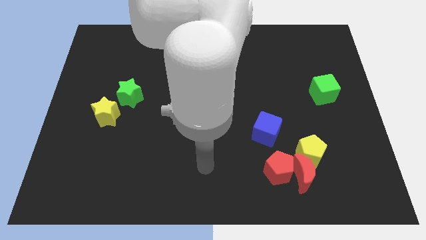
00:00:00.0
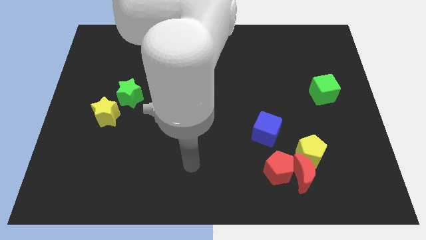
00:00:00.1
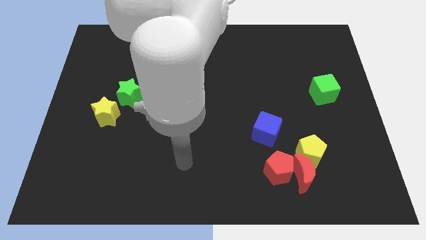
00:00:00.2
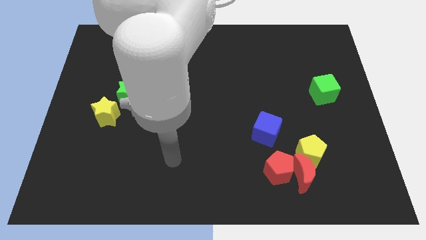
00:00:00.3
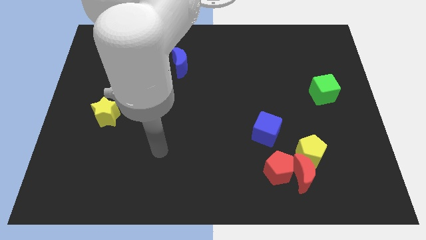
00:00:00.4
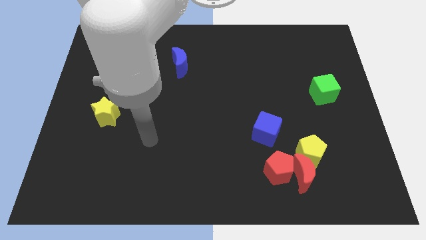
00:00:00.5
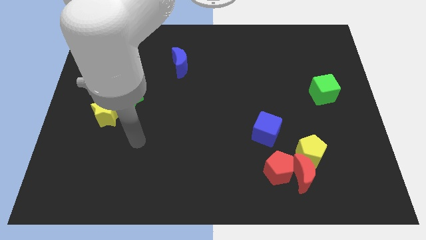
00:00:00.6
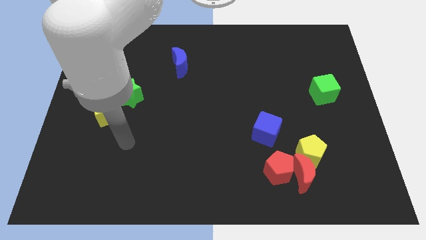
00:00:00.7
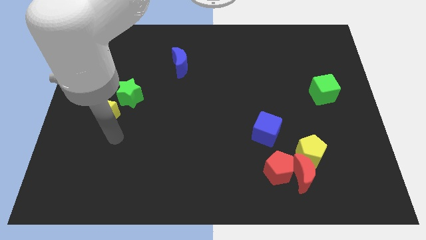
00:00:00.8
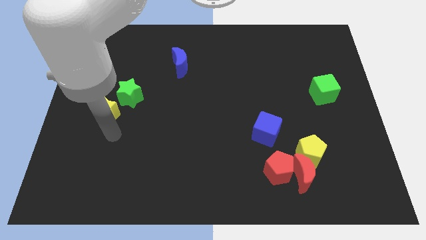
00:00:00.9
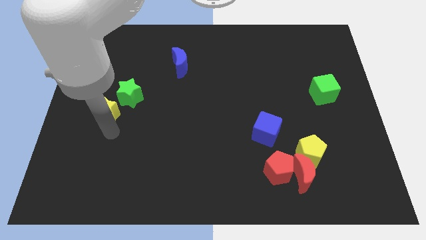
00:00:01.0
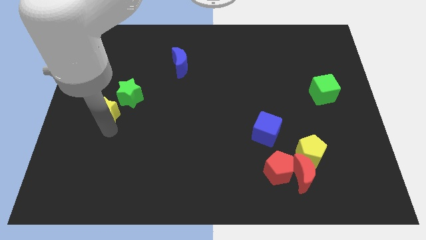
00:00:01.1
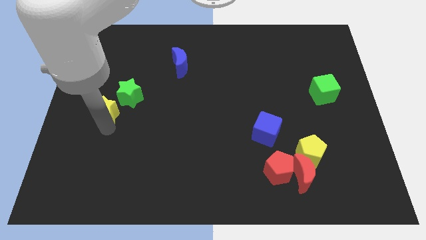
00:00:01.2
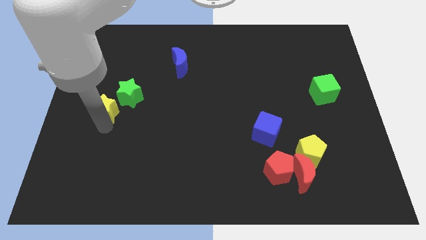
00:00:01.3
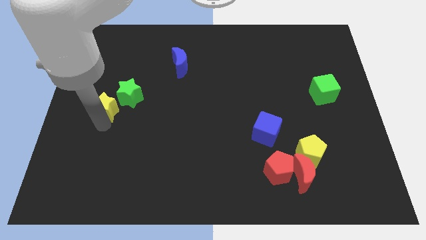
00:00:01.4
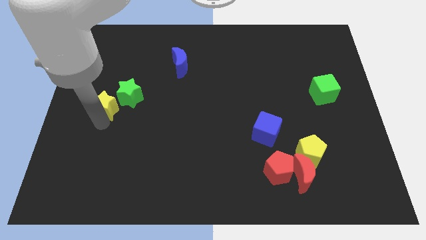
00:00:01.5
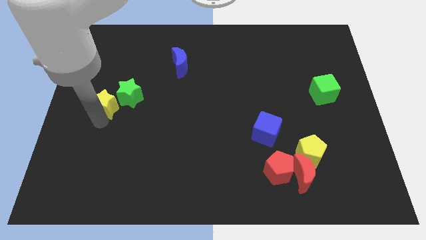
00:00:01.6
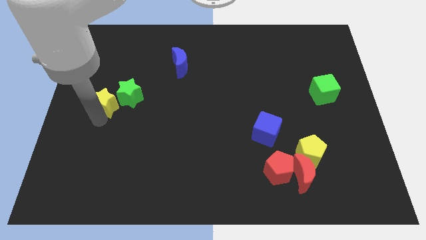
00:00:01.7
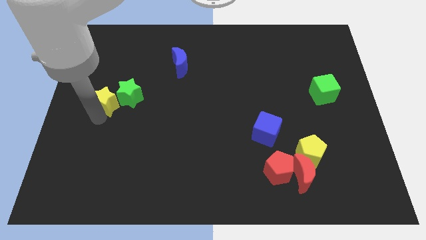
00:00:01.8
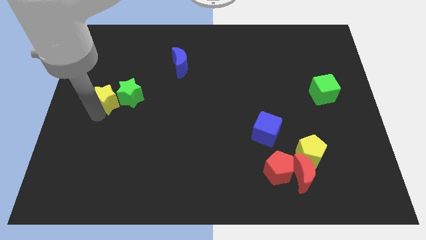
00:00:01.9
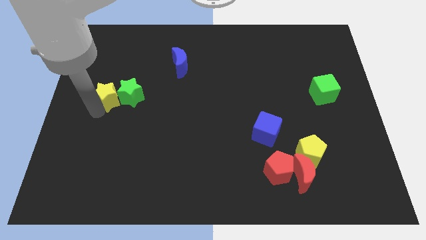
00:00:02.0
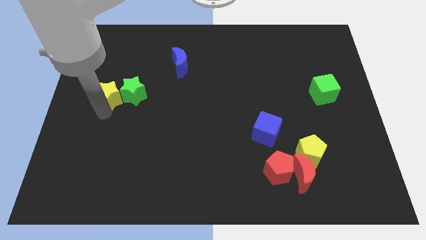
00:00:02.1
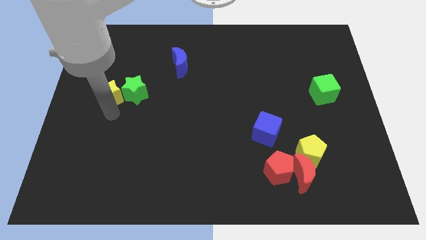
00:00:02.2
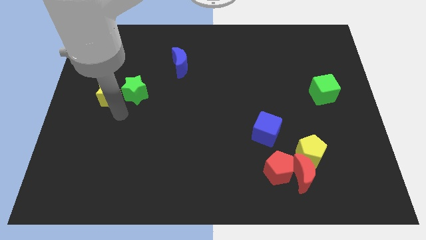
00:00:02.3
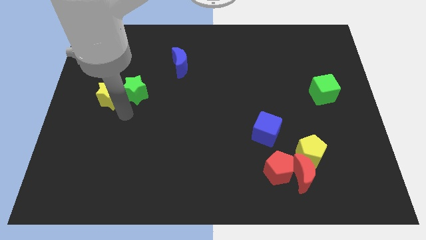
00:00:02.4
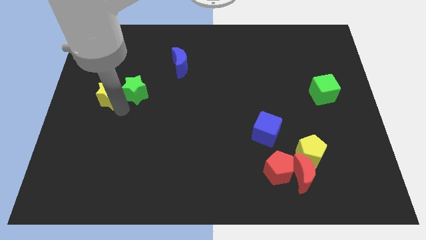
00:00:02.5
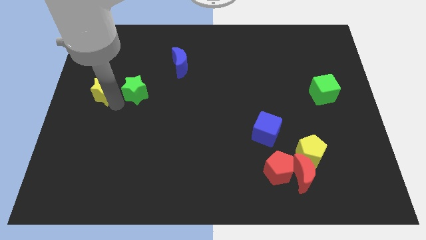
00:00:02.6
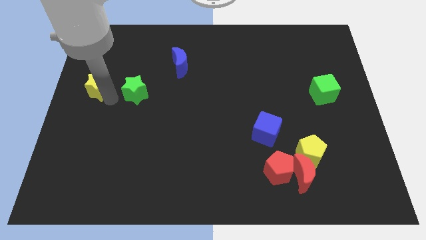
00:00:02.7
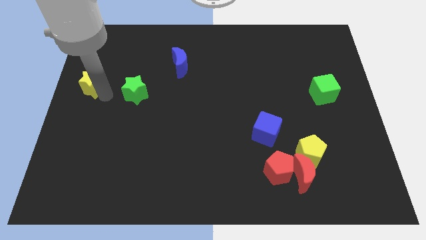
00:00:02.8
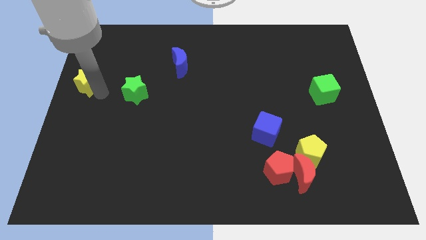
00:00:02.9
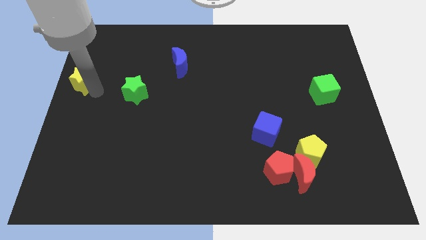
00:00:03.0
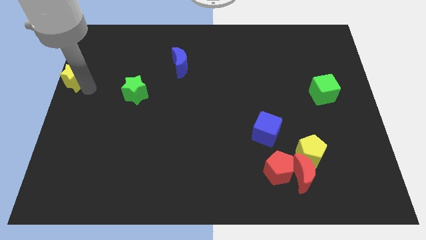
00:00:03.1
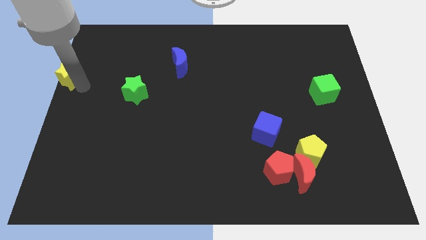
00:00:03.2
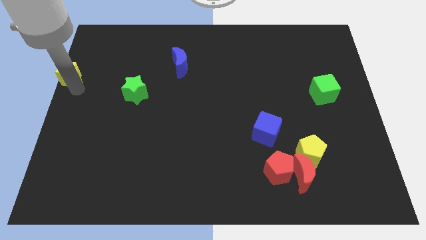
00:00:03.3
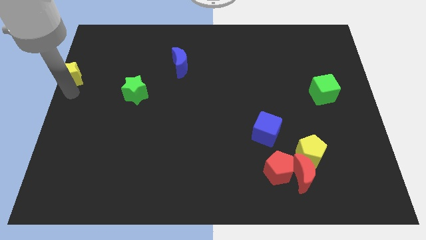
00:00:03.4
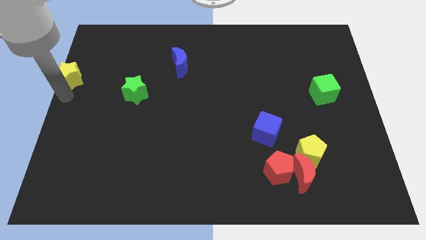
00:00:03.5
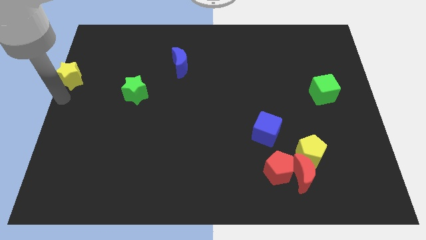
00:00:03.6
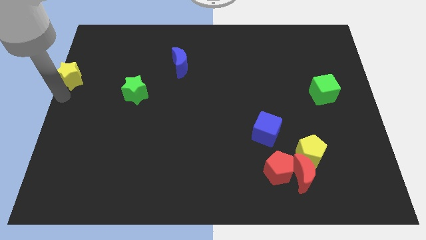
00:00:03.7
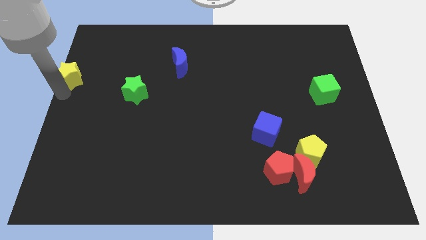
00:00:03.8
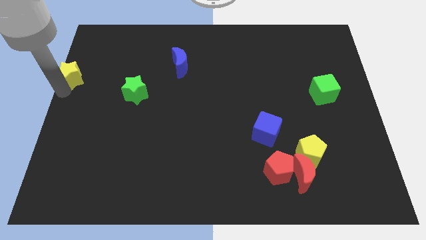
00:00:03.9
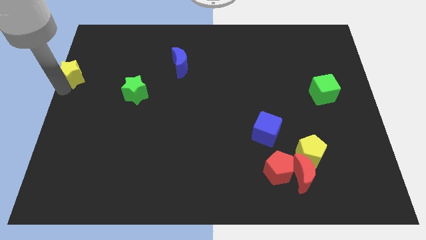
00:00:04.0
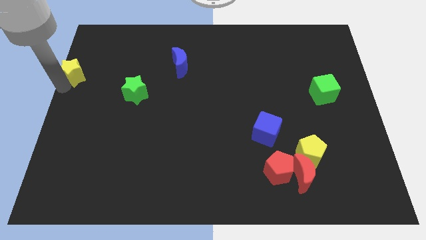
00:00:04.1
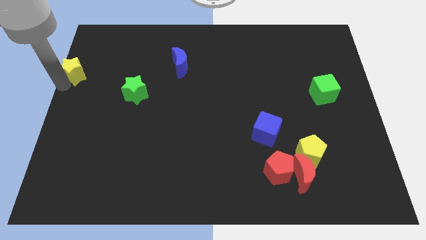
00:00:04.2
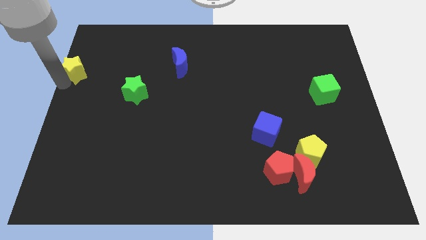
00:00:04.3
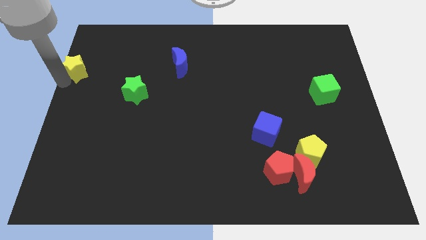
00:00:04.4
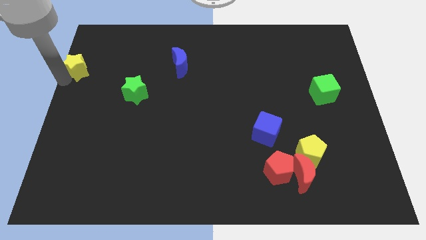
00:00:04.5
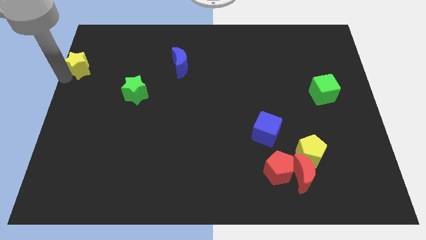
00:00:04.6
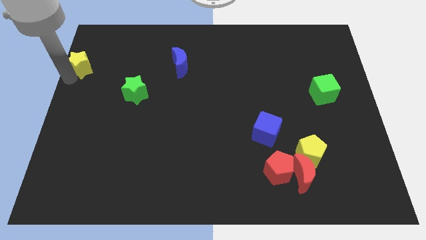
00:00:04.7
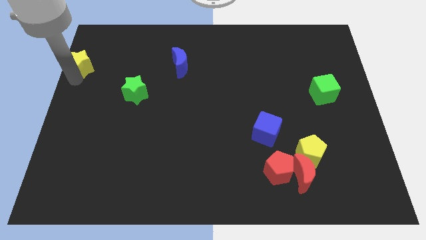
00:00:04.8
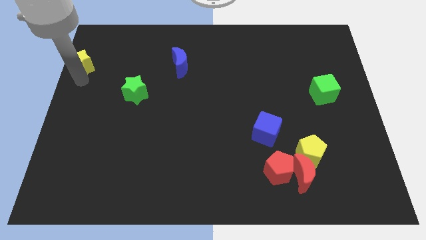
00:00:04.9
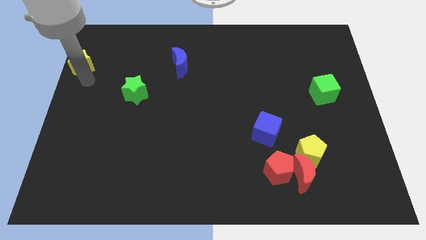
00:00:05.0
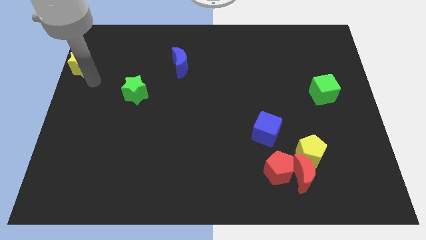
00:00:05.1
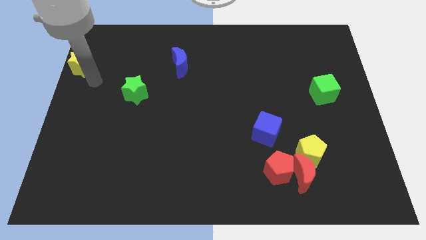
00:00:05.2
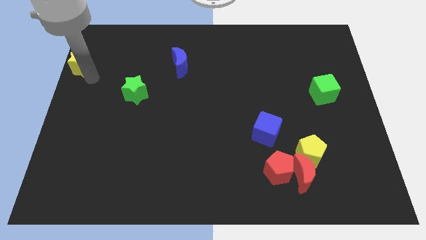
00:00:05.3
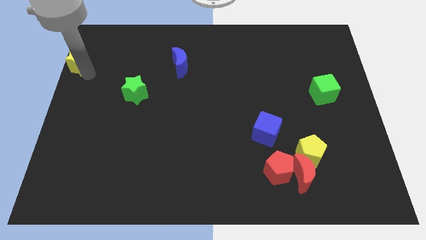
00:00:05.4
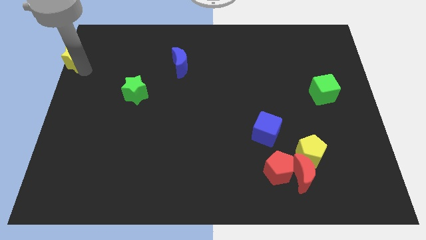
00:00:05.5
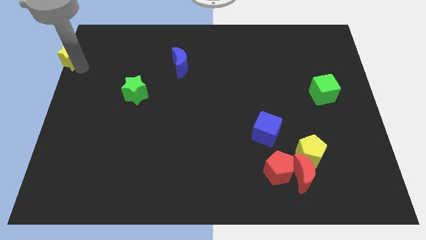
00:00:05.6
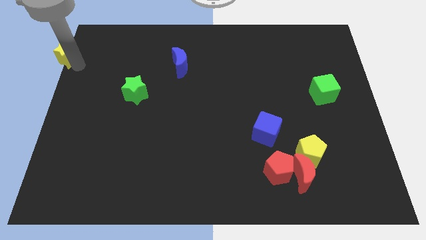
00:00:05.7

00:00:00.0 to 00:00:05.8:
move the yellow star to the top left corner

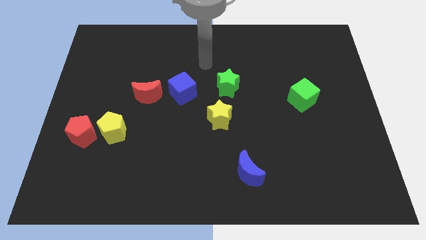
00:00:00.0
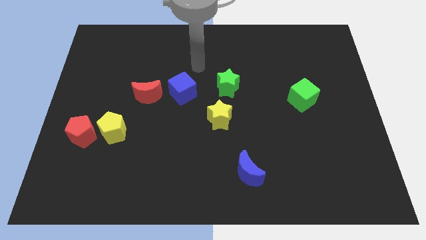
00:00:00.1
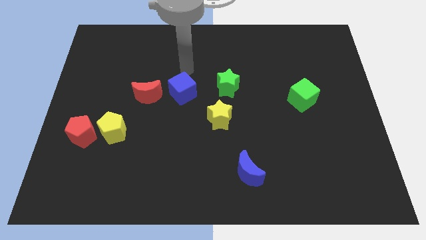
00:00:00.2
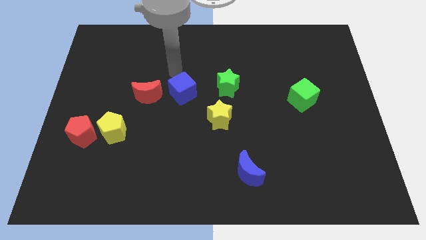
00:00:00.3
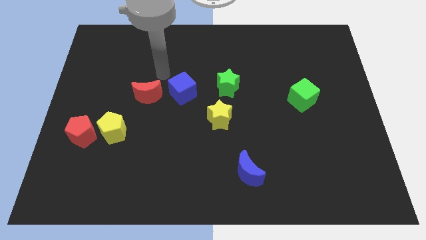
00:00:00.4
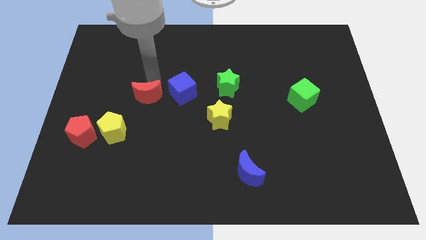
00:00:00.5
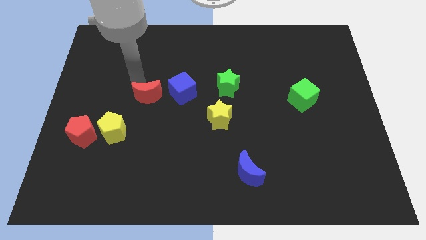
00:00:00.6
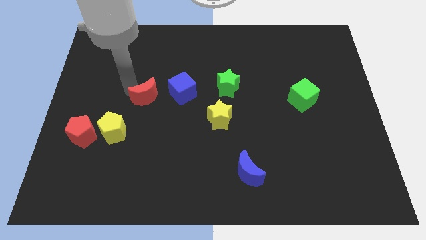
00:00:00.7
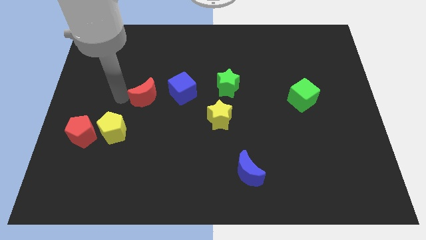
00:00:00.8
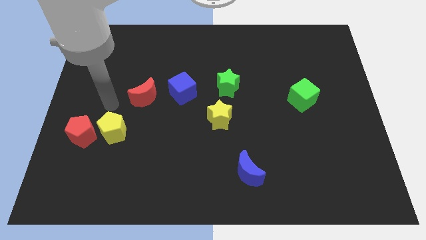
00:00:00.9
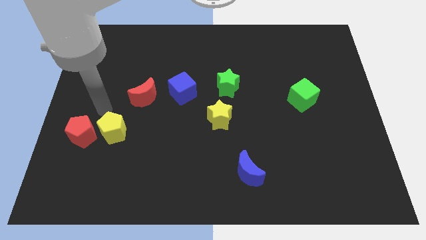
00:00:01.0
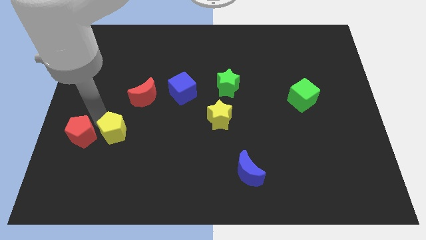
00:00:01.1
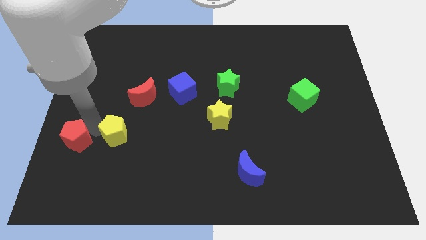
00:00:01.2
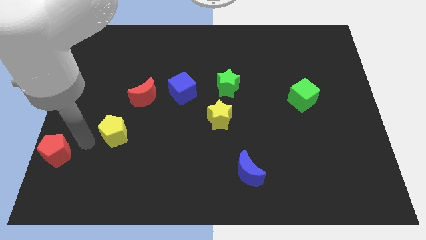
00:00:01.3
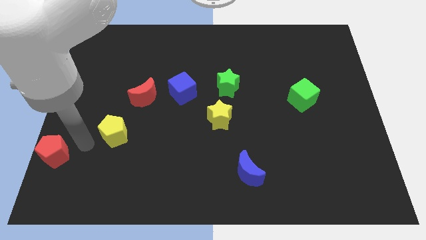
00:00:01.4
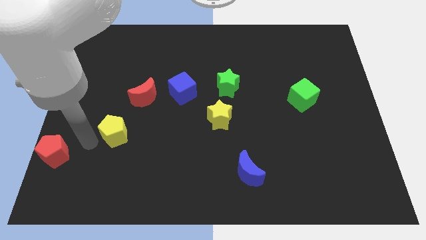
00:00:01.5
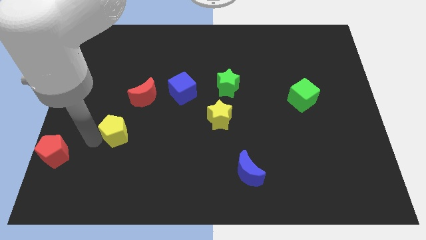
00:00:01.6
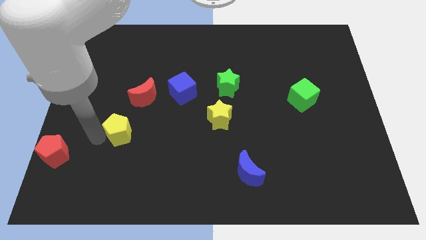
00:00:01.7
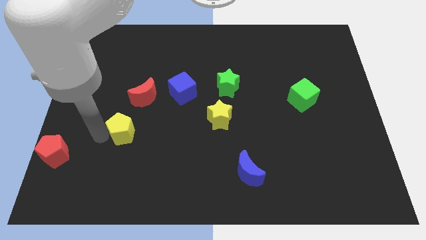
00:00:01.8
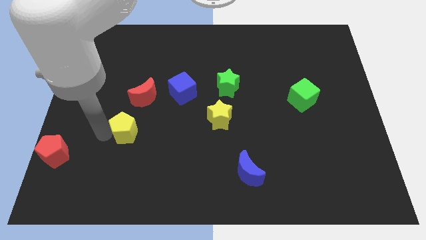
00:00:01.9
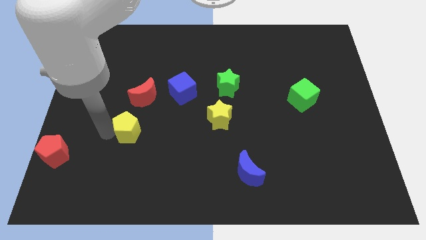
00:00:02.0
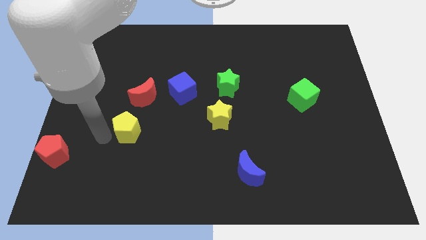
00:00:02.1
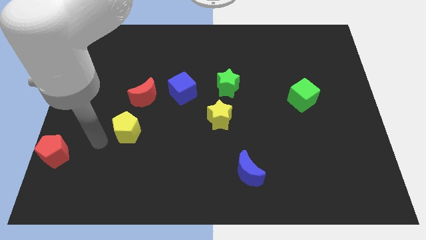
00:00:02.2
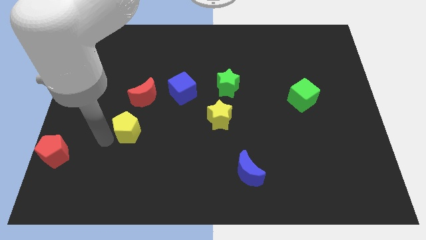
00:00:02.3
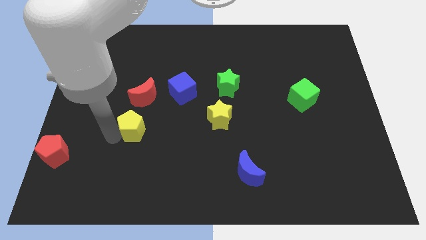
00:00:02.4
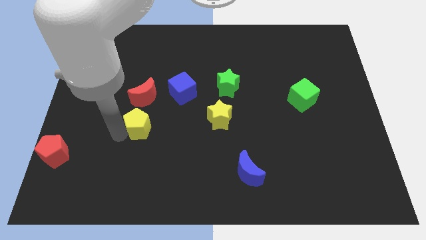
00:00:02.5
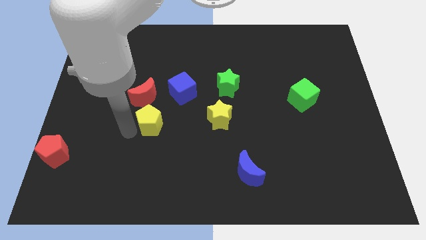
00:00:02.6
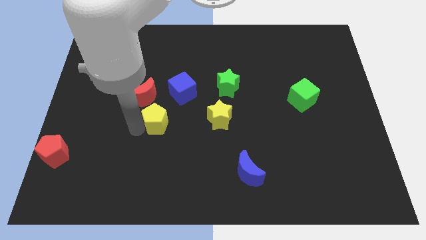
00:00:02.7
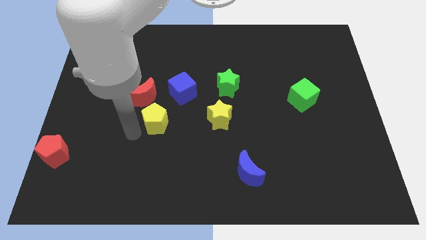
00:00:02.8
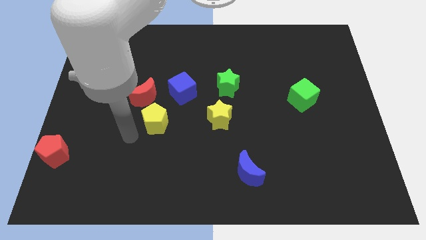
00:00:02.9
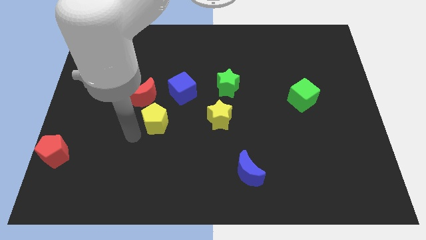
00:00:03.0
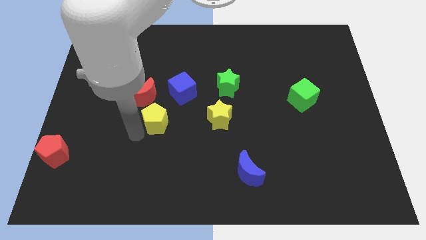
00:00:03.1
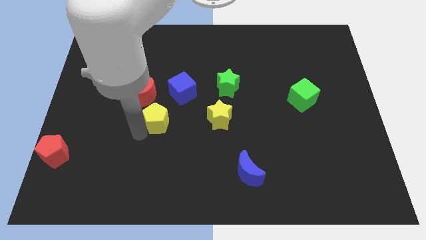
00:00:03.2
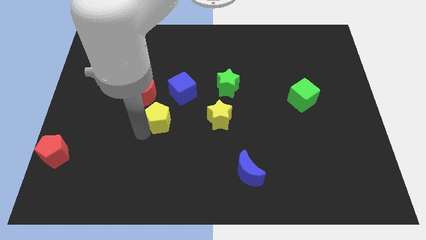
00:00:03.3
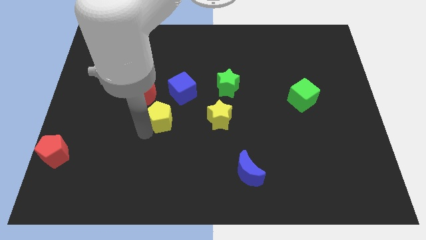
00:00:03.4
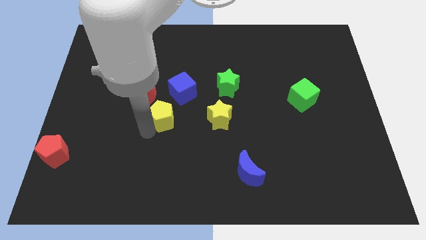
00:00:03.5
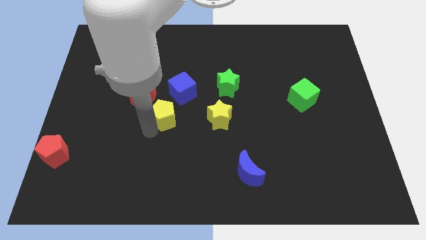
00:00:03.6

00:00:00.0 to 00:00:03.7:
slide the yellow pentagon to the center
